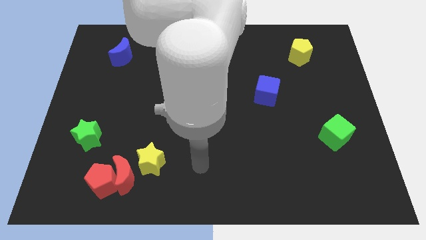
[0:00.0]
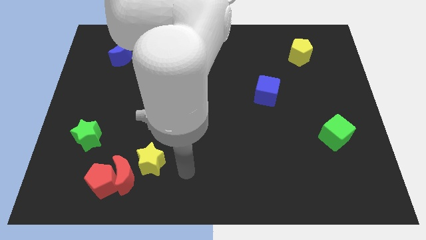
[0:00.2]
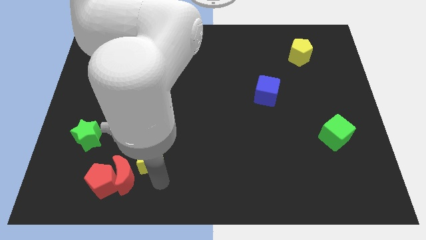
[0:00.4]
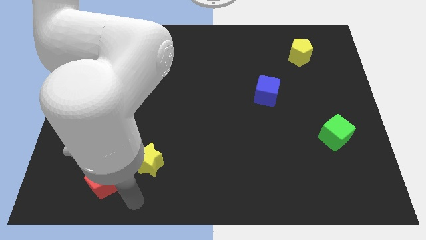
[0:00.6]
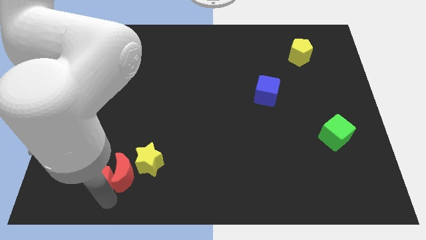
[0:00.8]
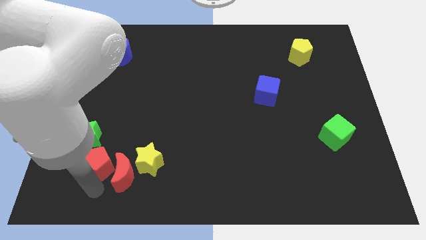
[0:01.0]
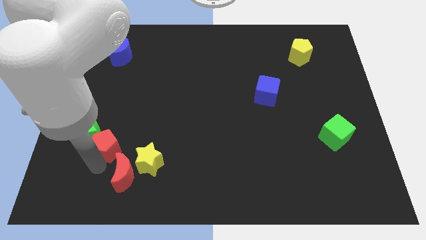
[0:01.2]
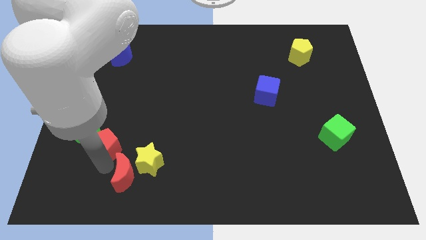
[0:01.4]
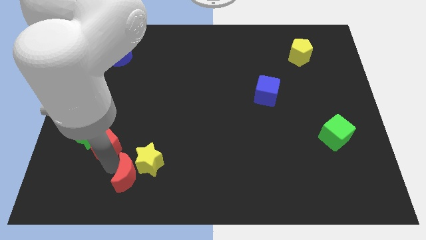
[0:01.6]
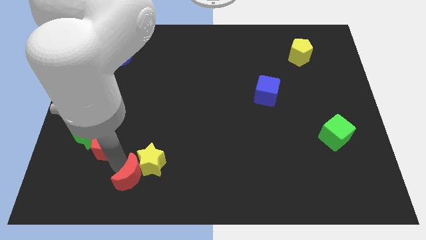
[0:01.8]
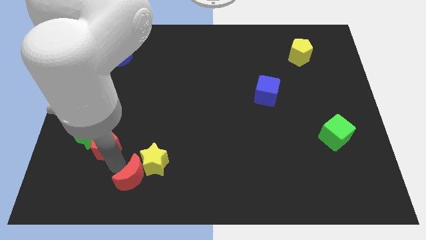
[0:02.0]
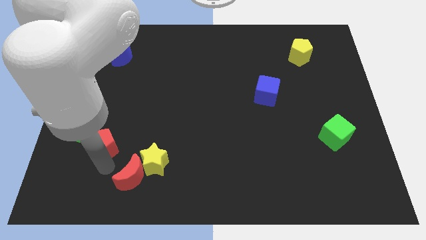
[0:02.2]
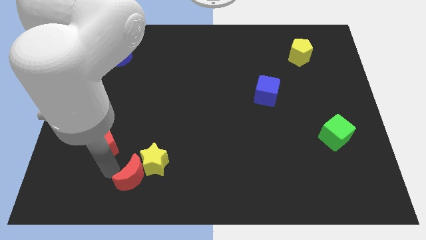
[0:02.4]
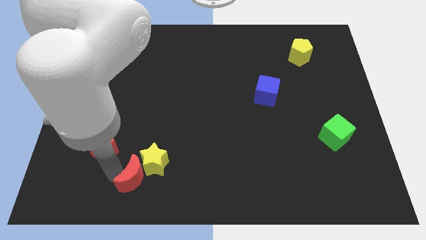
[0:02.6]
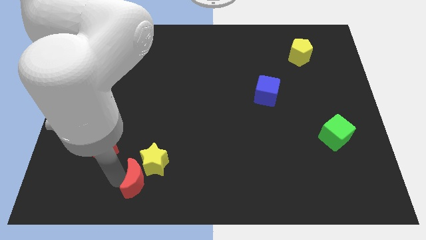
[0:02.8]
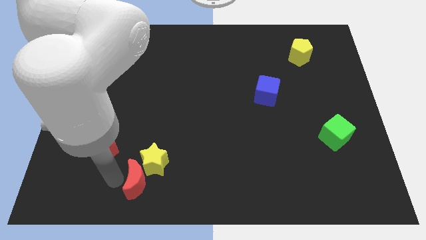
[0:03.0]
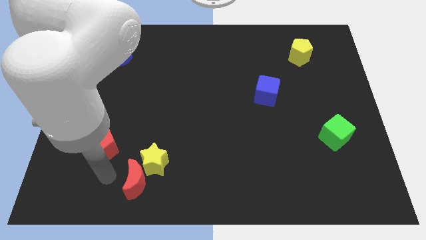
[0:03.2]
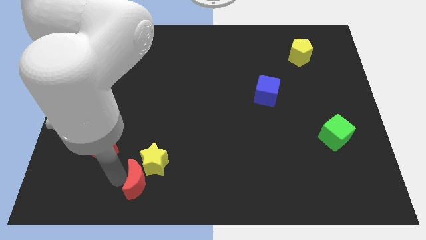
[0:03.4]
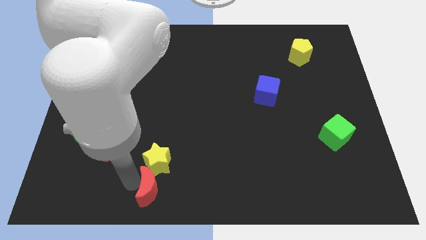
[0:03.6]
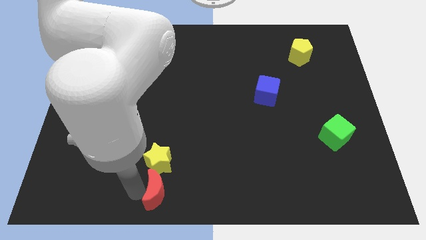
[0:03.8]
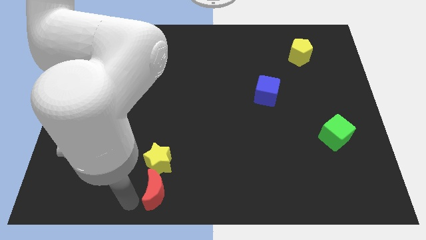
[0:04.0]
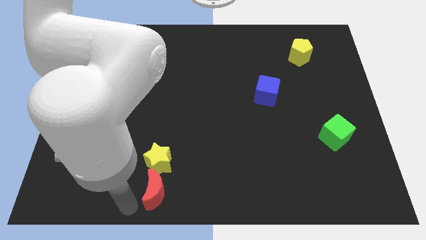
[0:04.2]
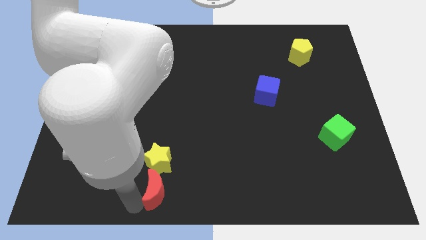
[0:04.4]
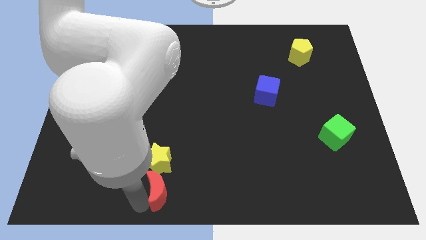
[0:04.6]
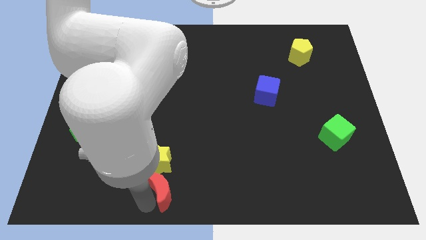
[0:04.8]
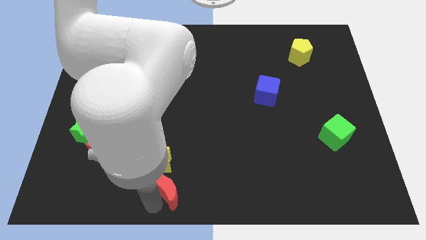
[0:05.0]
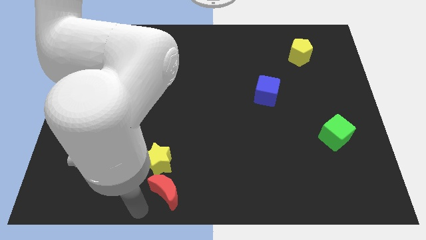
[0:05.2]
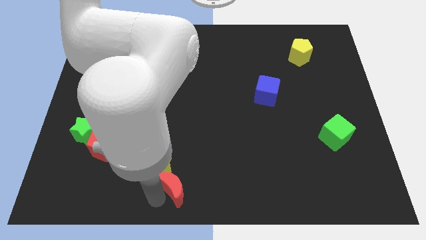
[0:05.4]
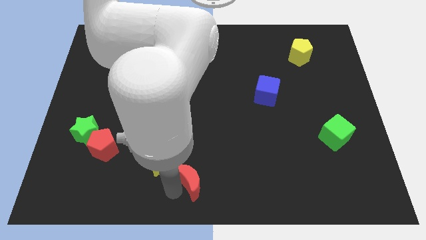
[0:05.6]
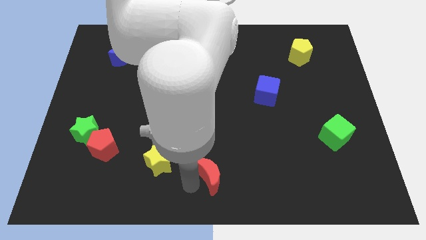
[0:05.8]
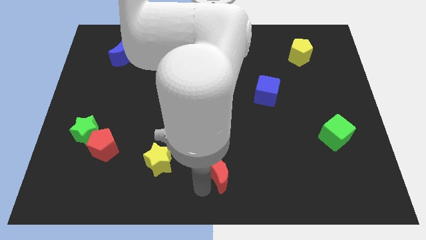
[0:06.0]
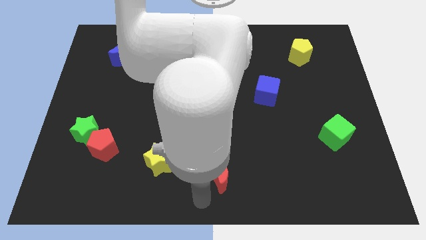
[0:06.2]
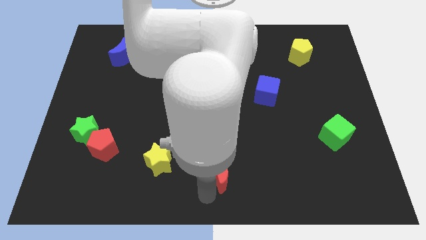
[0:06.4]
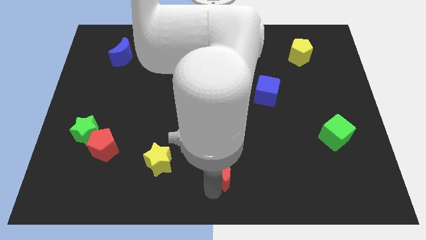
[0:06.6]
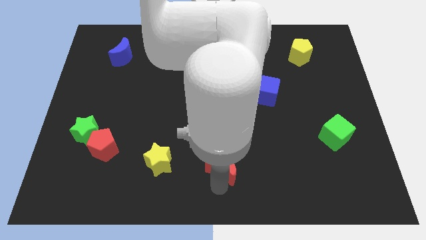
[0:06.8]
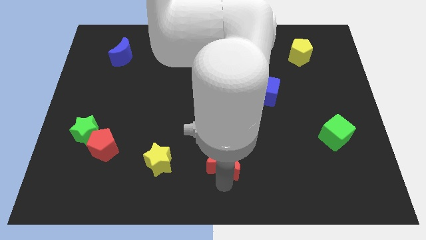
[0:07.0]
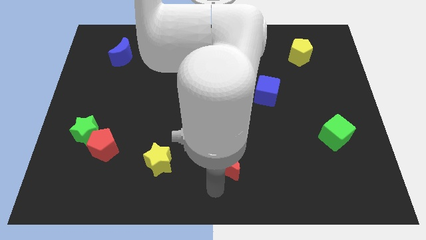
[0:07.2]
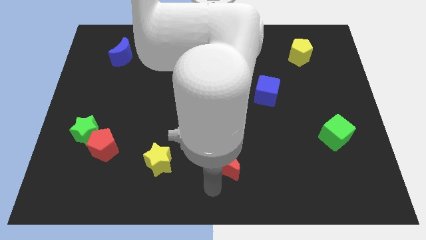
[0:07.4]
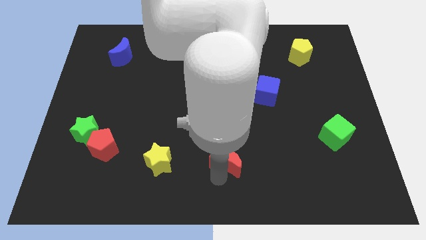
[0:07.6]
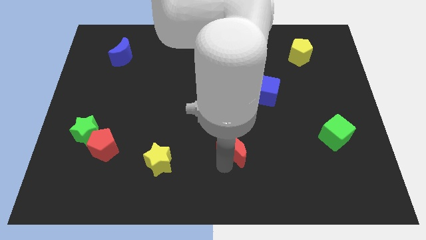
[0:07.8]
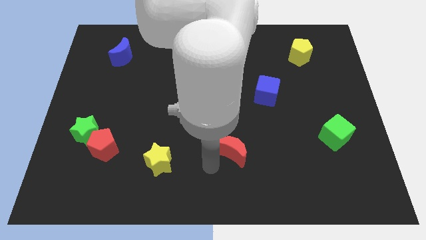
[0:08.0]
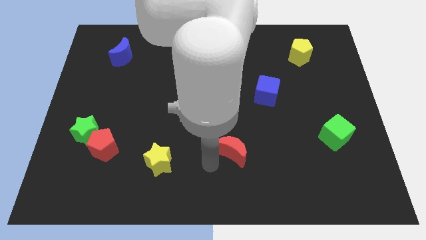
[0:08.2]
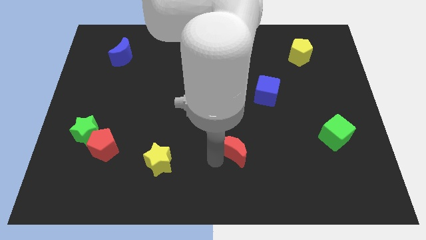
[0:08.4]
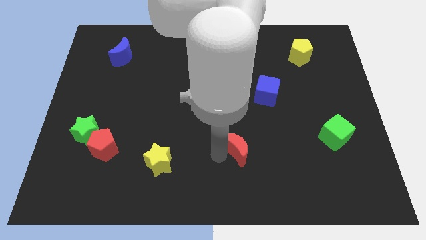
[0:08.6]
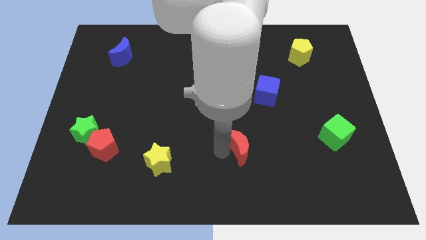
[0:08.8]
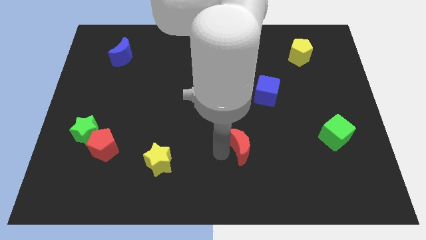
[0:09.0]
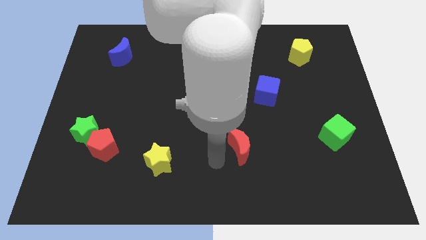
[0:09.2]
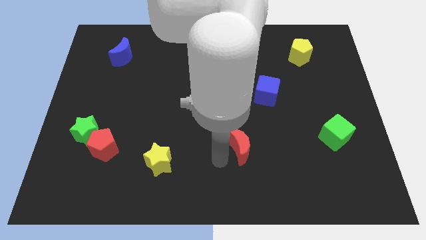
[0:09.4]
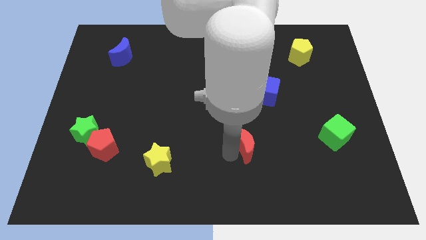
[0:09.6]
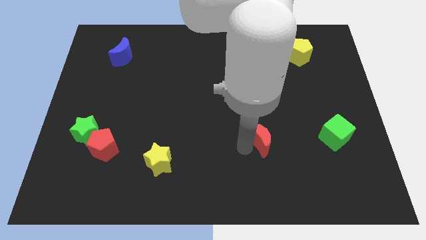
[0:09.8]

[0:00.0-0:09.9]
slide the red moon to the bottom of the blue cube

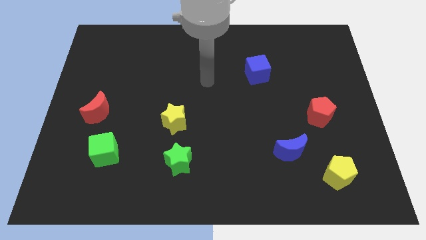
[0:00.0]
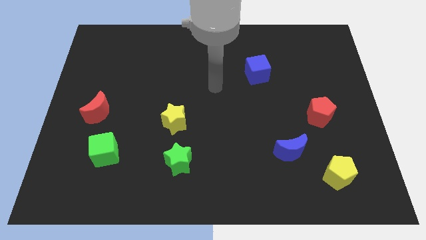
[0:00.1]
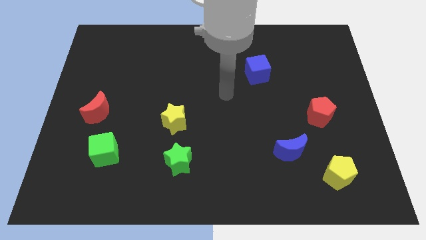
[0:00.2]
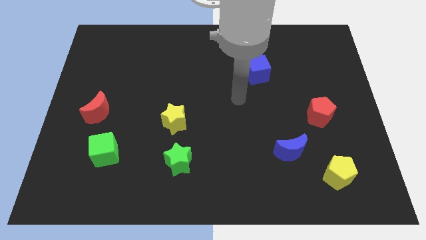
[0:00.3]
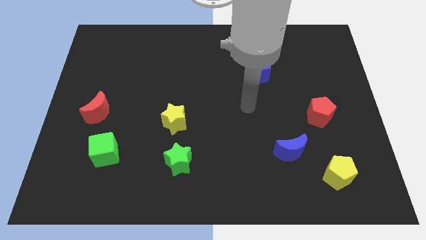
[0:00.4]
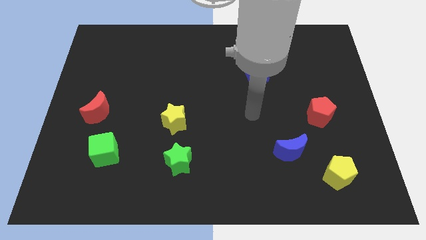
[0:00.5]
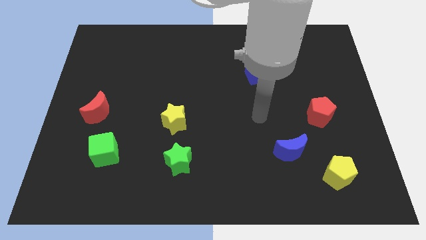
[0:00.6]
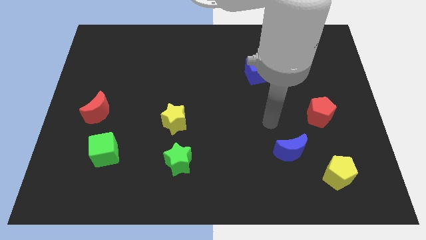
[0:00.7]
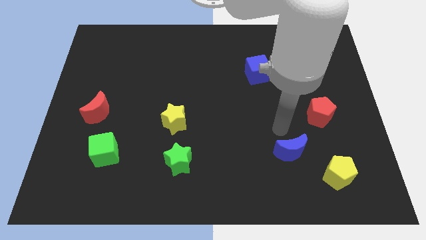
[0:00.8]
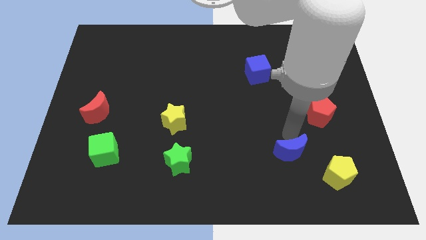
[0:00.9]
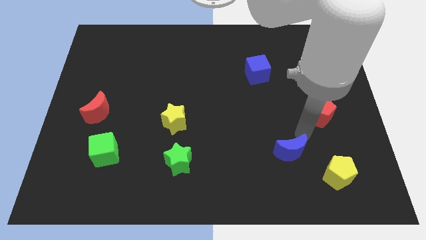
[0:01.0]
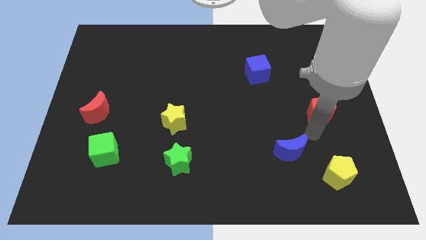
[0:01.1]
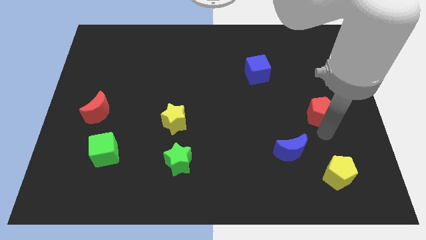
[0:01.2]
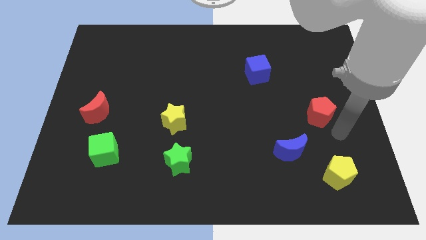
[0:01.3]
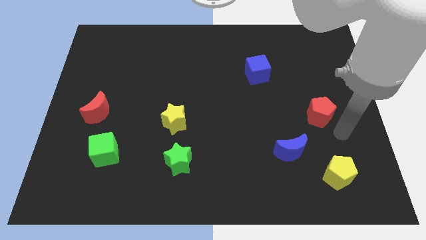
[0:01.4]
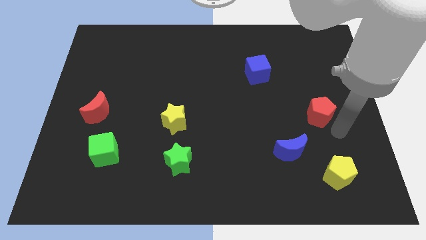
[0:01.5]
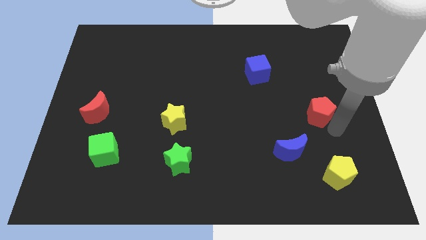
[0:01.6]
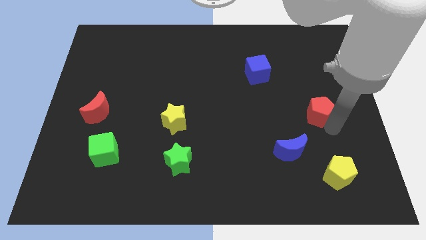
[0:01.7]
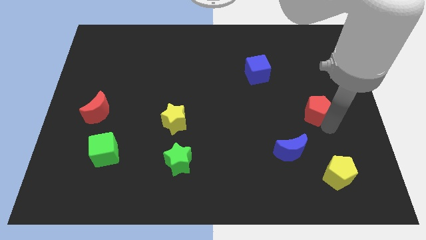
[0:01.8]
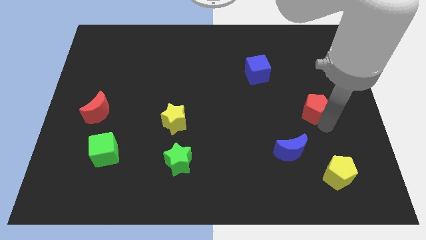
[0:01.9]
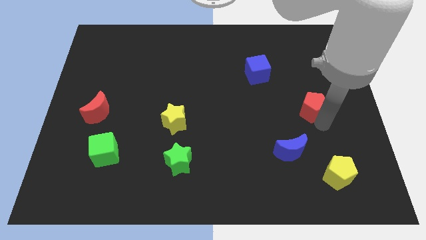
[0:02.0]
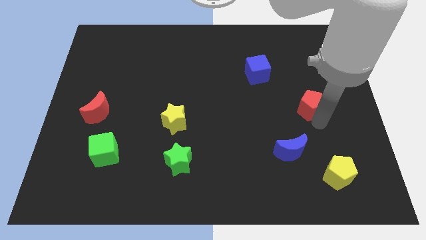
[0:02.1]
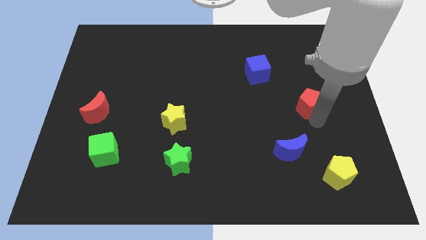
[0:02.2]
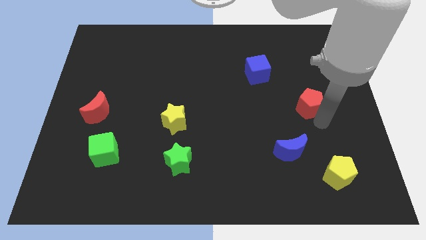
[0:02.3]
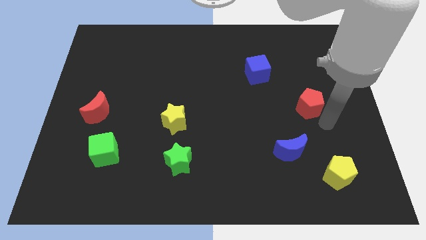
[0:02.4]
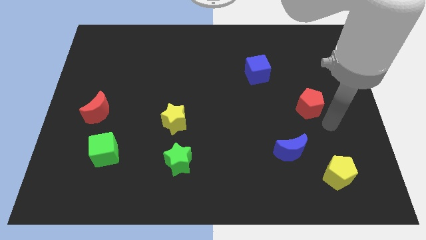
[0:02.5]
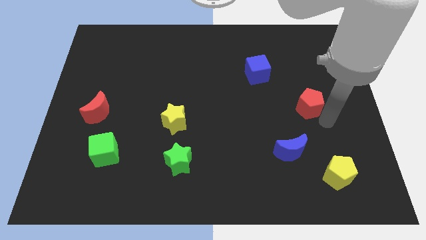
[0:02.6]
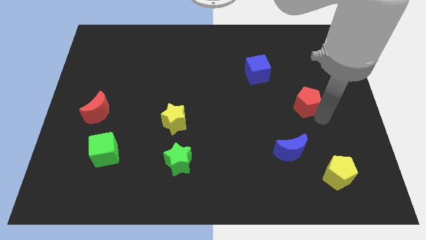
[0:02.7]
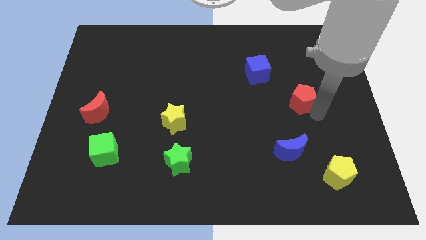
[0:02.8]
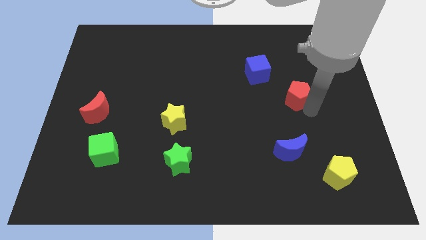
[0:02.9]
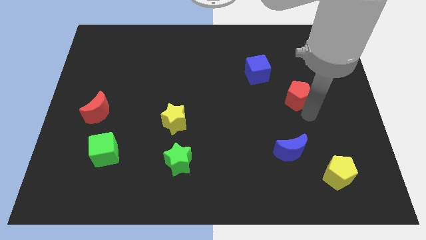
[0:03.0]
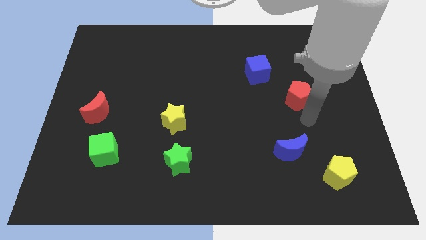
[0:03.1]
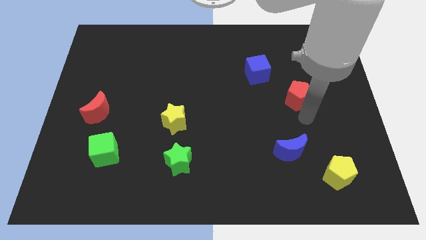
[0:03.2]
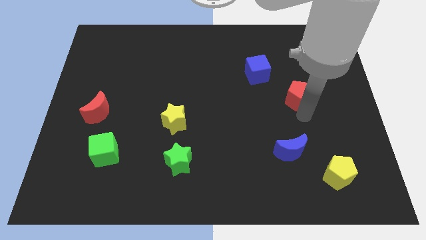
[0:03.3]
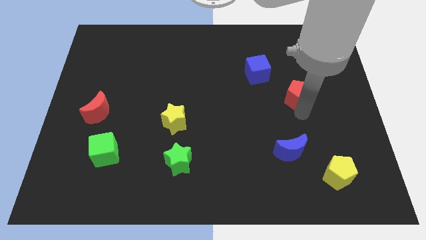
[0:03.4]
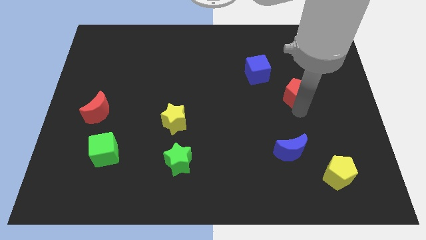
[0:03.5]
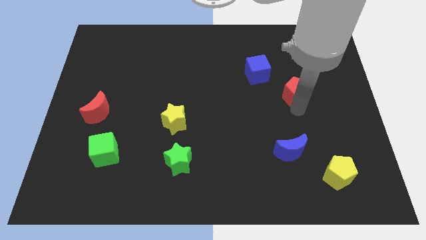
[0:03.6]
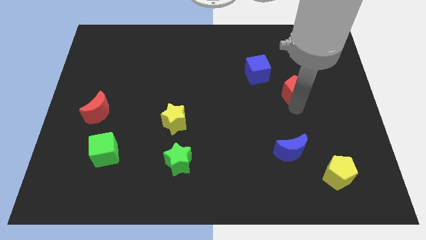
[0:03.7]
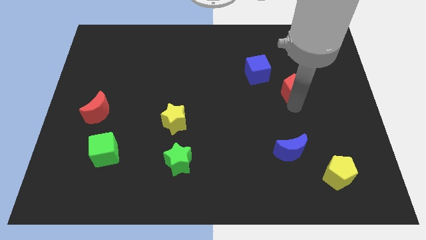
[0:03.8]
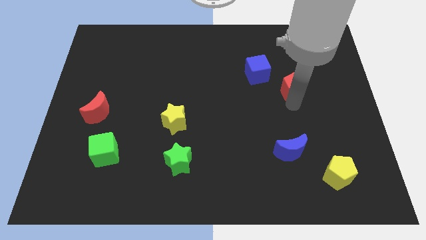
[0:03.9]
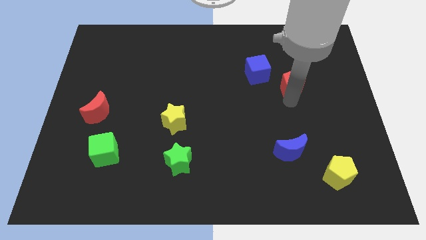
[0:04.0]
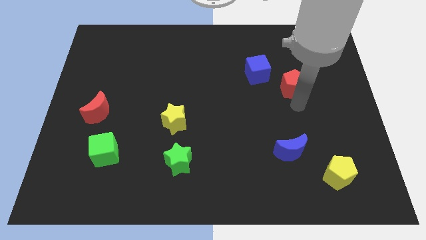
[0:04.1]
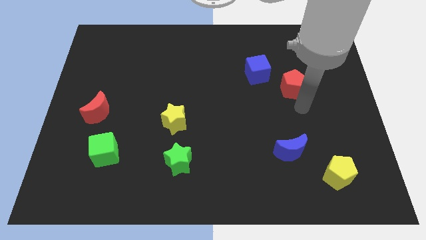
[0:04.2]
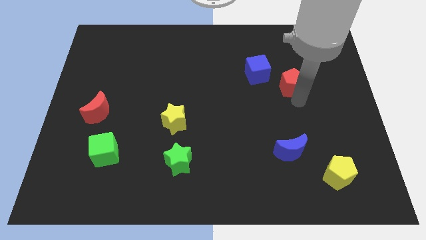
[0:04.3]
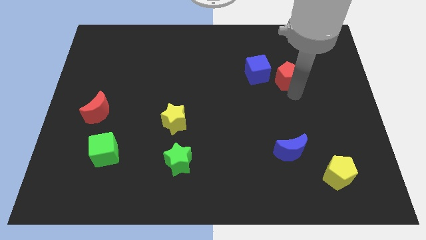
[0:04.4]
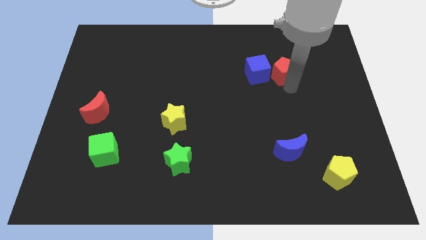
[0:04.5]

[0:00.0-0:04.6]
put the red pentagon to the top right of the blue cube
